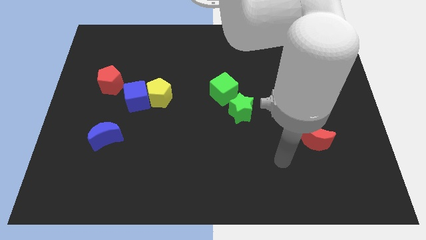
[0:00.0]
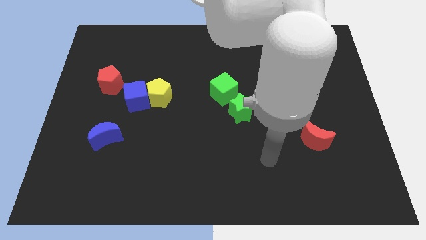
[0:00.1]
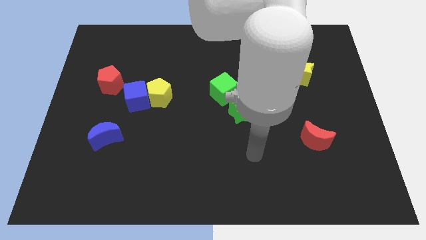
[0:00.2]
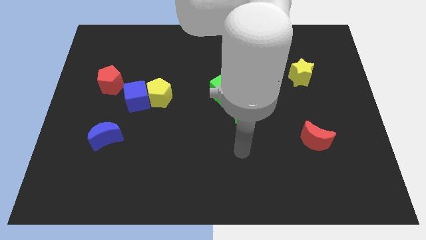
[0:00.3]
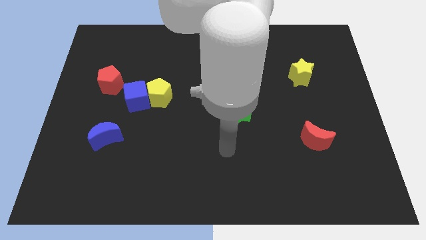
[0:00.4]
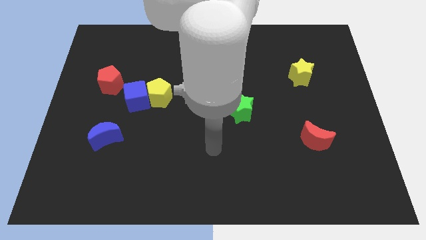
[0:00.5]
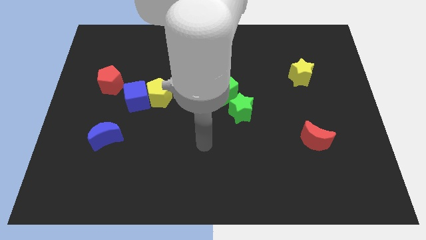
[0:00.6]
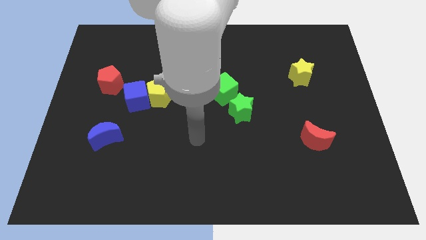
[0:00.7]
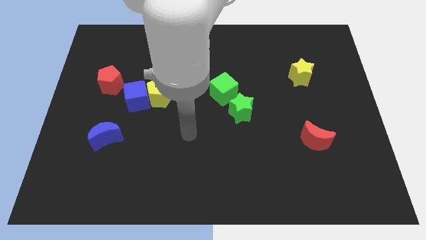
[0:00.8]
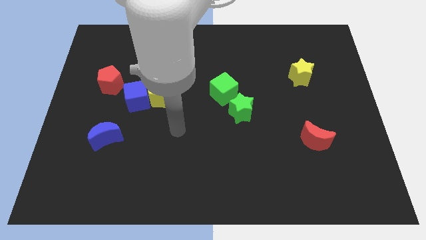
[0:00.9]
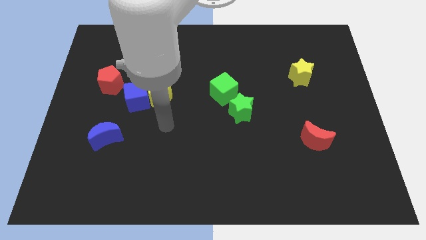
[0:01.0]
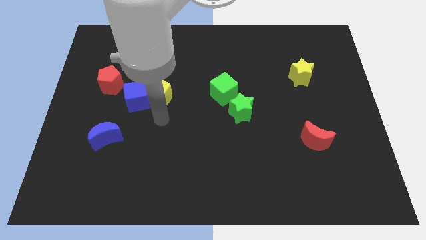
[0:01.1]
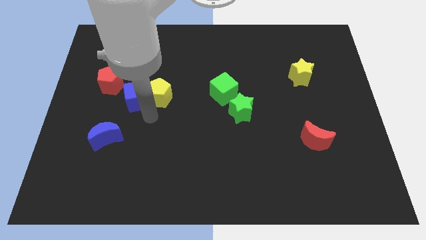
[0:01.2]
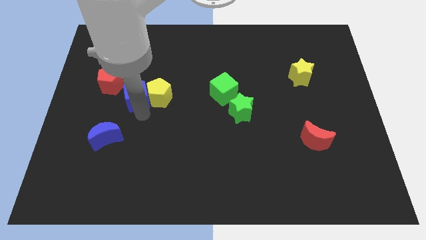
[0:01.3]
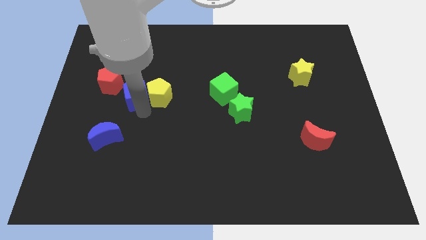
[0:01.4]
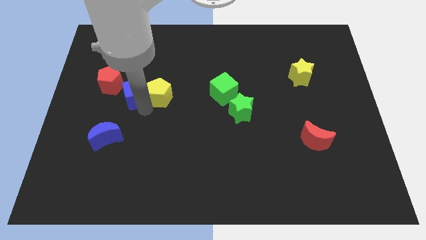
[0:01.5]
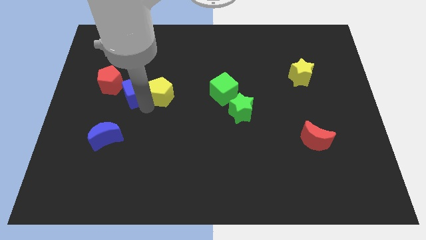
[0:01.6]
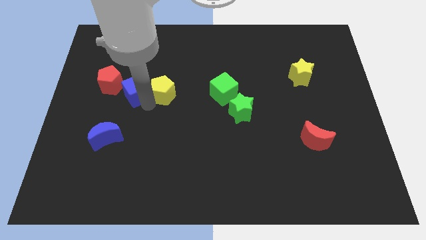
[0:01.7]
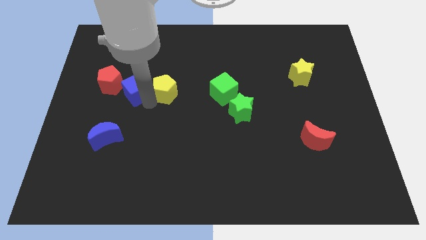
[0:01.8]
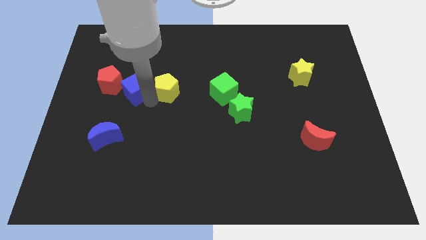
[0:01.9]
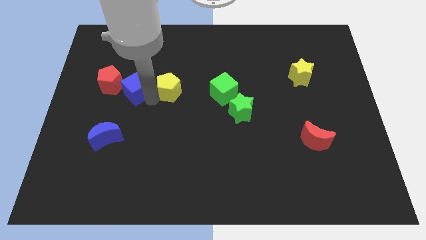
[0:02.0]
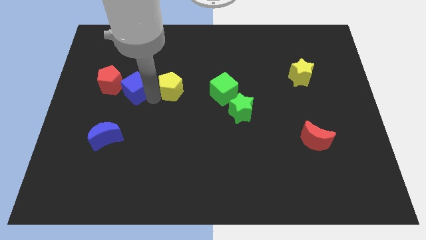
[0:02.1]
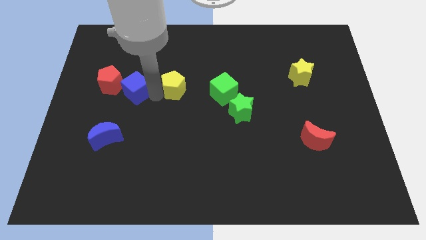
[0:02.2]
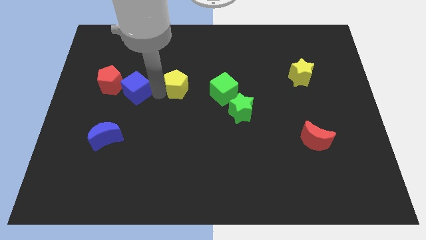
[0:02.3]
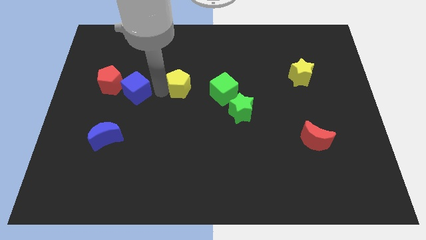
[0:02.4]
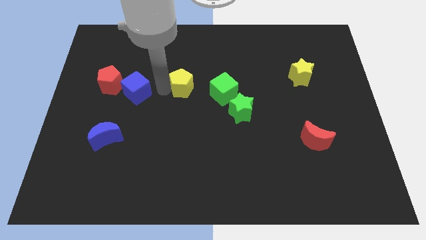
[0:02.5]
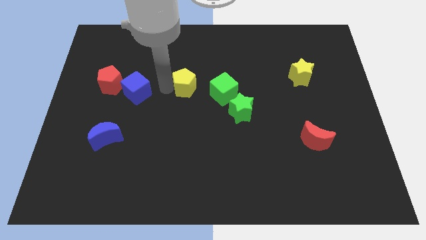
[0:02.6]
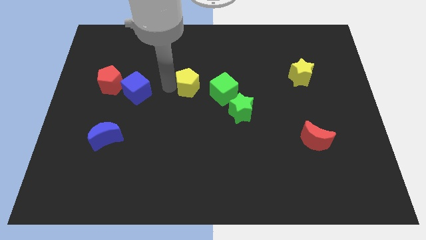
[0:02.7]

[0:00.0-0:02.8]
move the yellow pentagon a little bit upwards and to the right diagonally

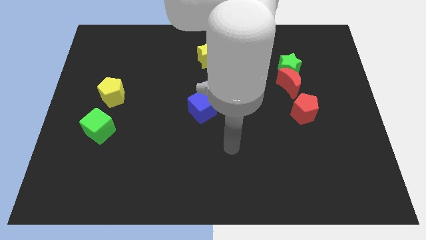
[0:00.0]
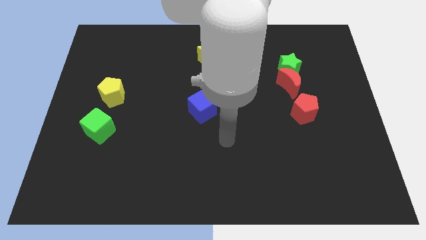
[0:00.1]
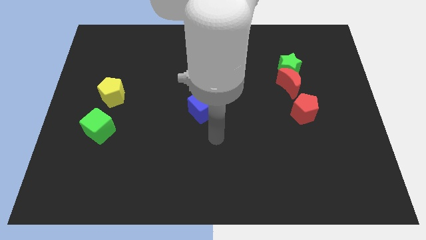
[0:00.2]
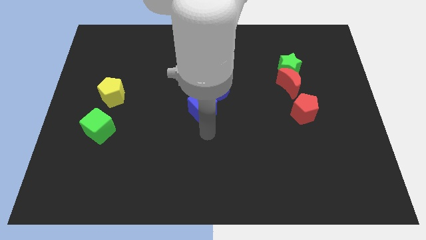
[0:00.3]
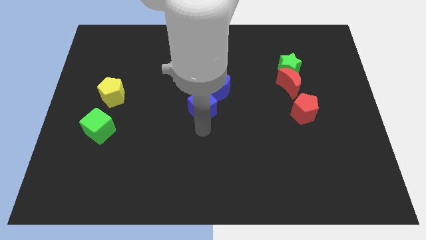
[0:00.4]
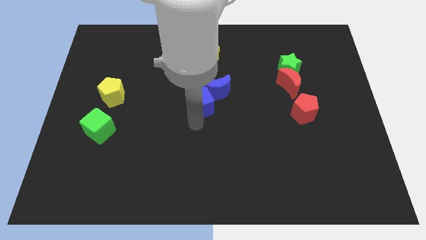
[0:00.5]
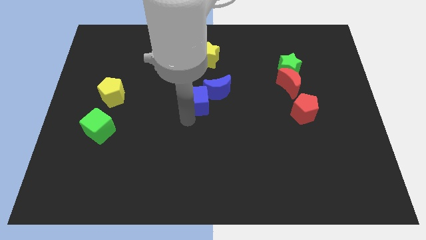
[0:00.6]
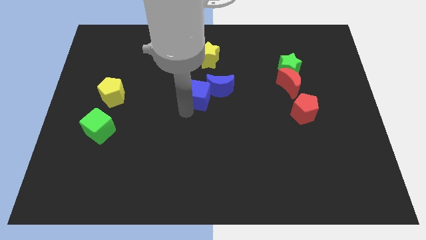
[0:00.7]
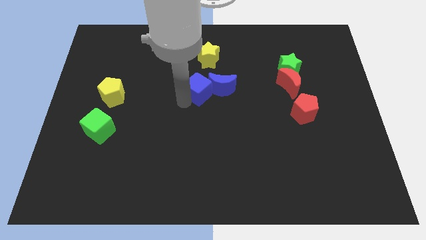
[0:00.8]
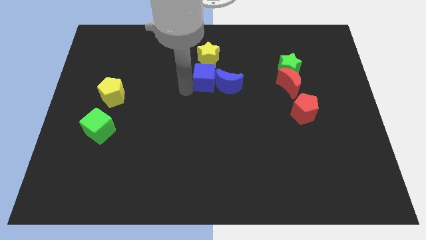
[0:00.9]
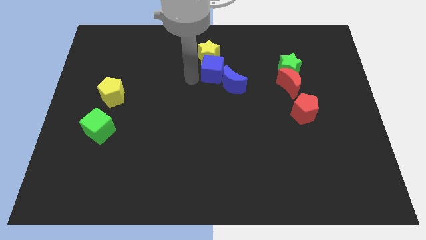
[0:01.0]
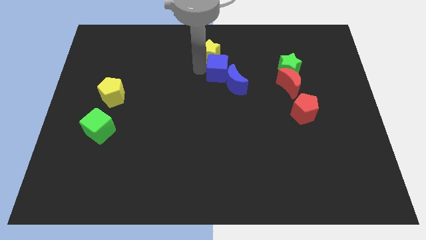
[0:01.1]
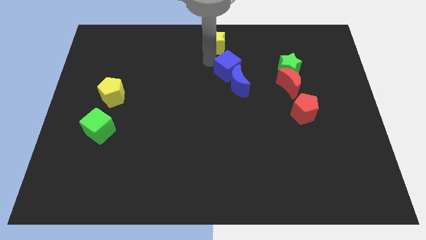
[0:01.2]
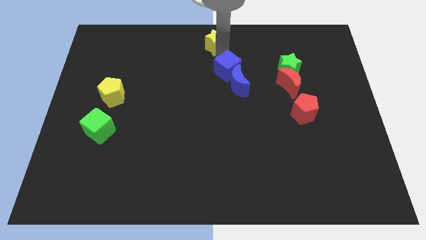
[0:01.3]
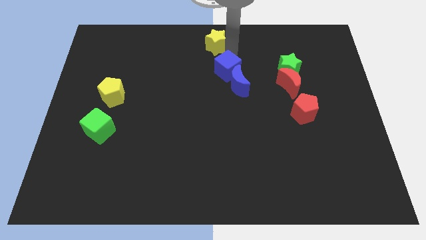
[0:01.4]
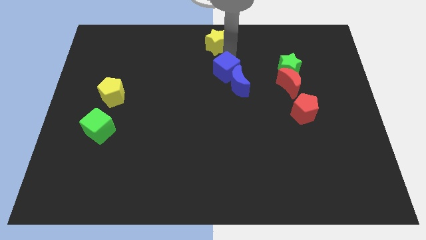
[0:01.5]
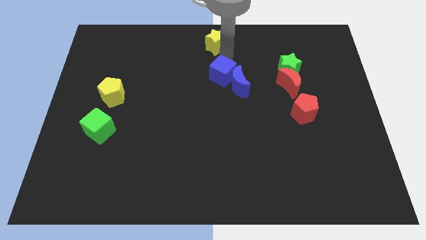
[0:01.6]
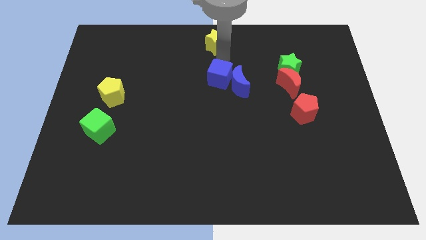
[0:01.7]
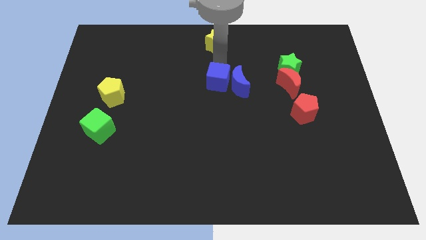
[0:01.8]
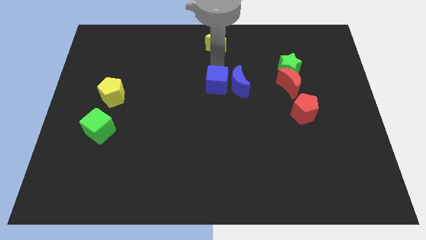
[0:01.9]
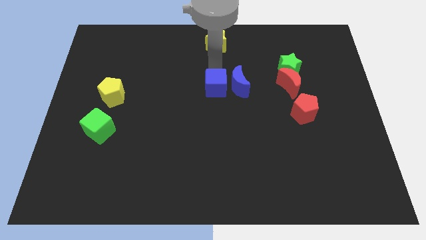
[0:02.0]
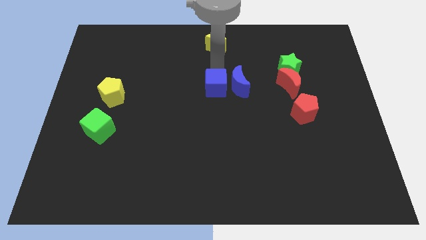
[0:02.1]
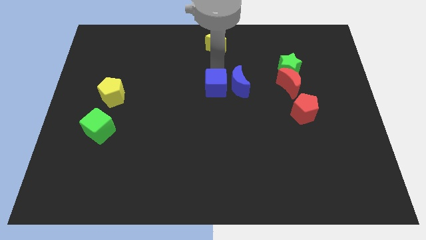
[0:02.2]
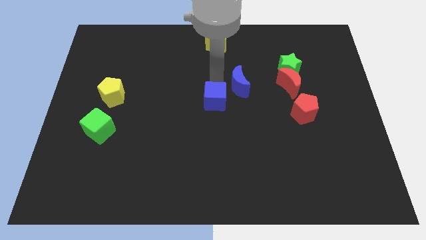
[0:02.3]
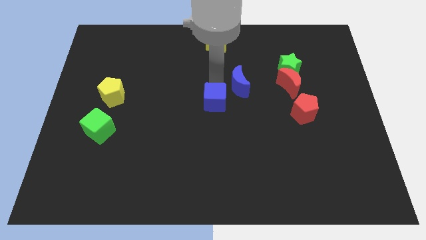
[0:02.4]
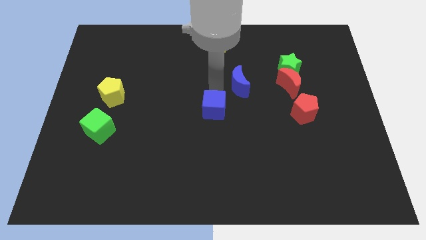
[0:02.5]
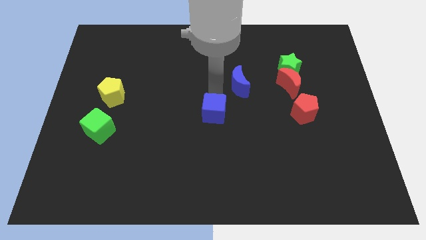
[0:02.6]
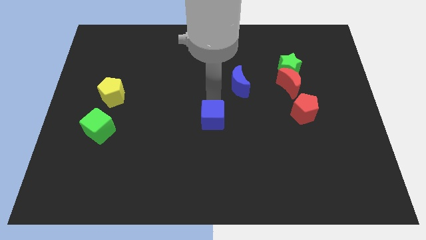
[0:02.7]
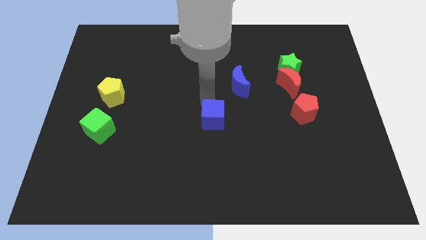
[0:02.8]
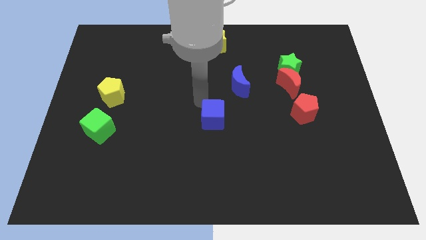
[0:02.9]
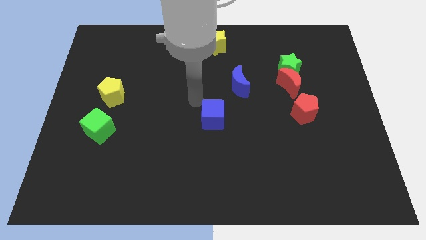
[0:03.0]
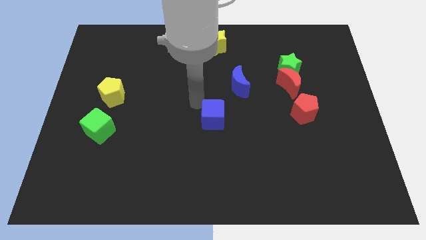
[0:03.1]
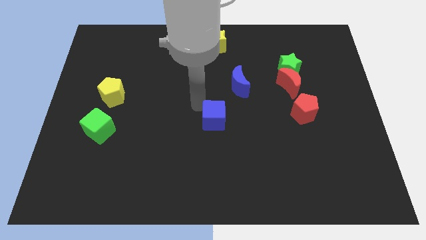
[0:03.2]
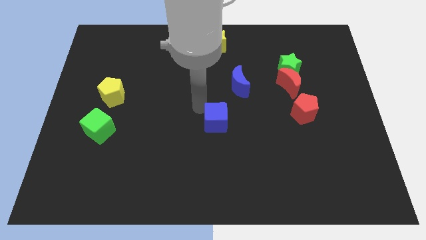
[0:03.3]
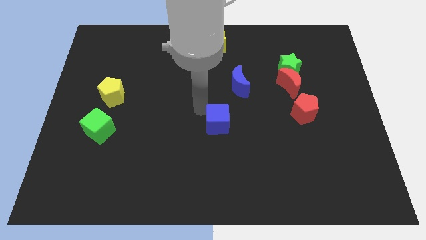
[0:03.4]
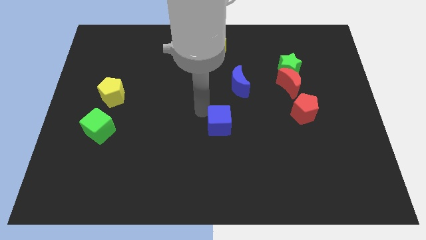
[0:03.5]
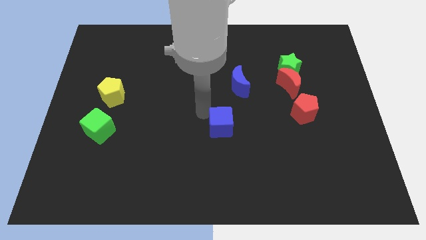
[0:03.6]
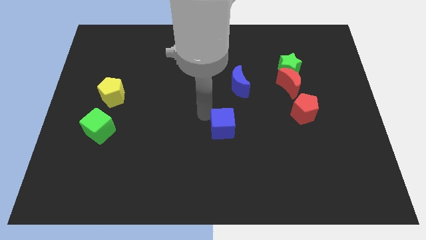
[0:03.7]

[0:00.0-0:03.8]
slightly move the blue cube diagonally down and right

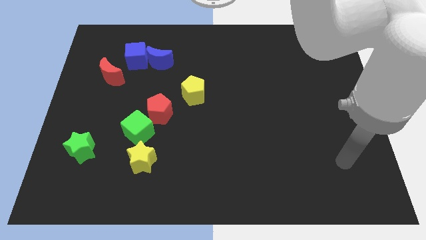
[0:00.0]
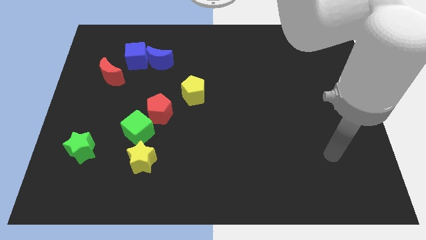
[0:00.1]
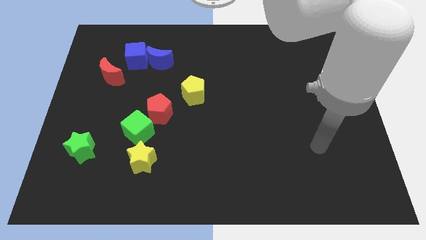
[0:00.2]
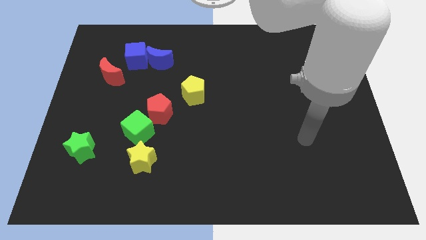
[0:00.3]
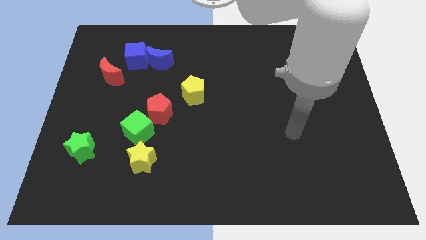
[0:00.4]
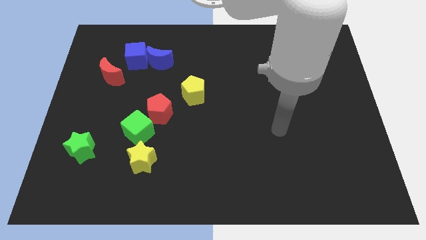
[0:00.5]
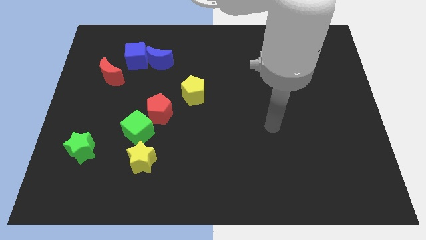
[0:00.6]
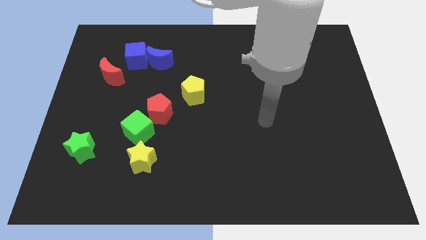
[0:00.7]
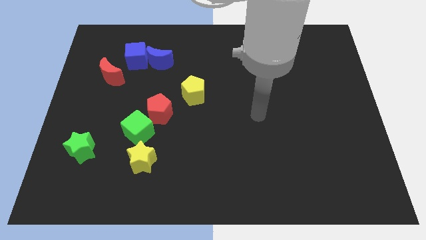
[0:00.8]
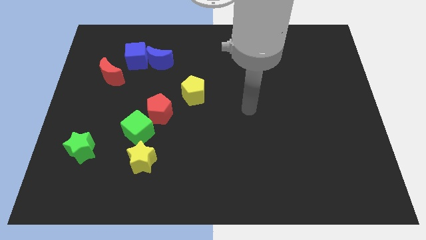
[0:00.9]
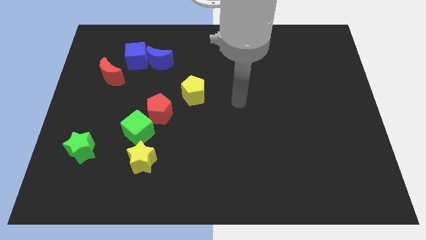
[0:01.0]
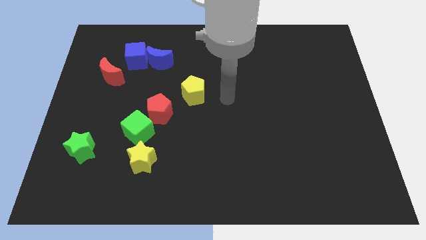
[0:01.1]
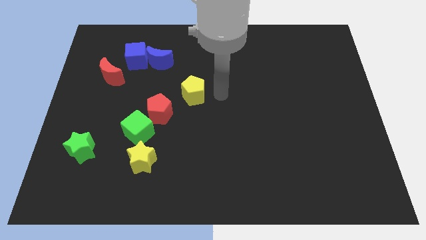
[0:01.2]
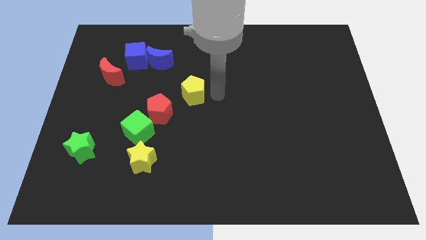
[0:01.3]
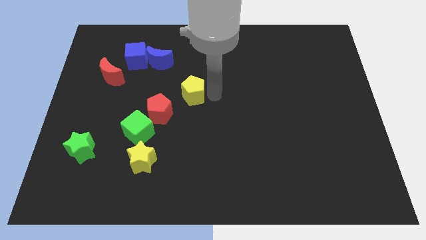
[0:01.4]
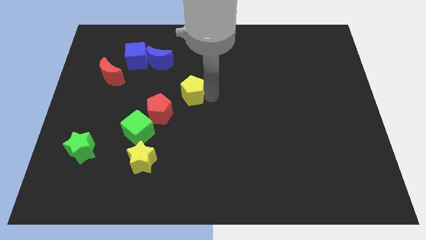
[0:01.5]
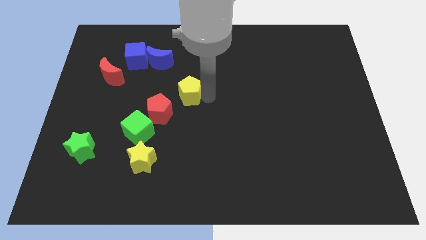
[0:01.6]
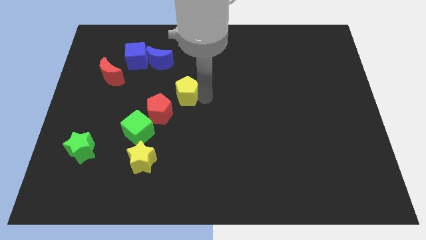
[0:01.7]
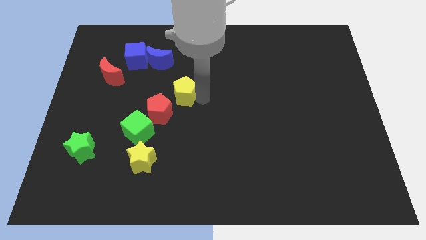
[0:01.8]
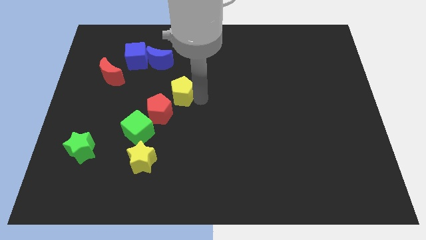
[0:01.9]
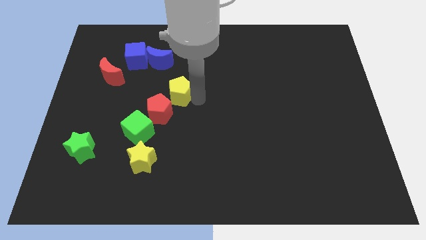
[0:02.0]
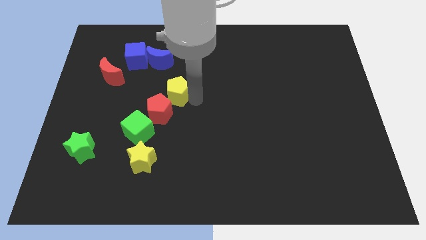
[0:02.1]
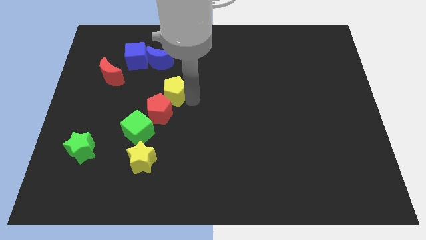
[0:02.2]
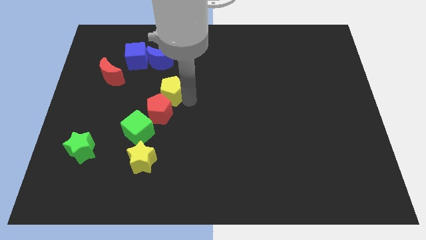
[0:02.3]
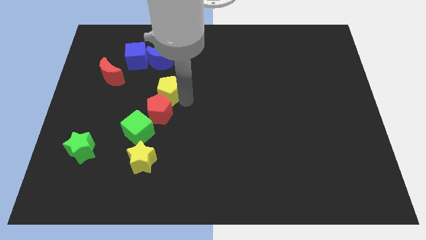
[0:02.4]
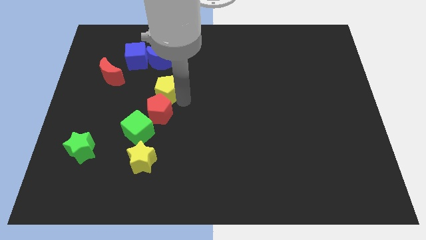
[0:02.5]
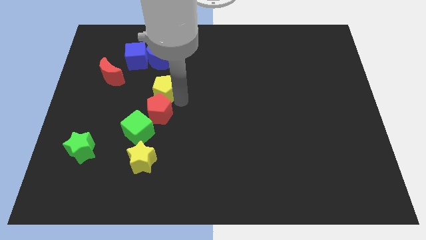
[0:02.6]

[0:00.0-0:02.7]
slightly slide the yellow pentagon left
